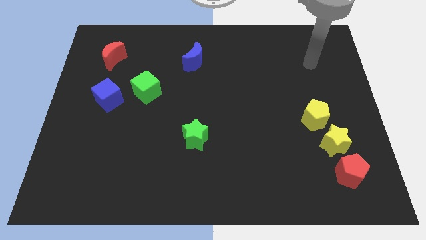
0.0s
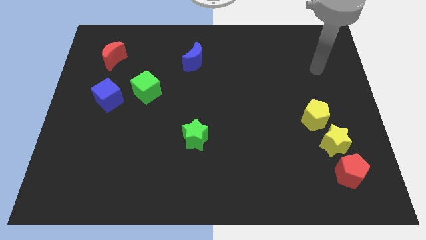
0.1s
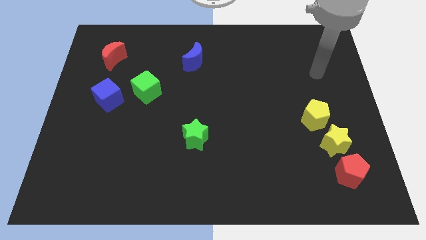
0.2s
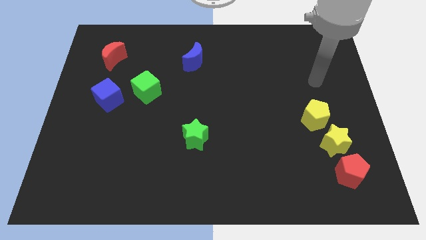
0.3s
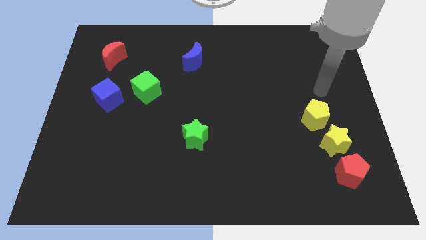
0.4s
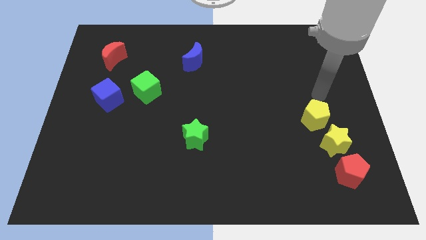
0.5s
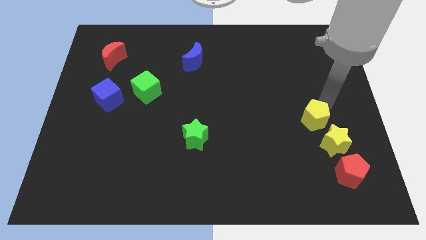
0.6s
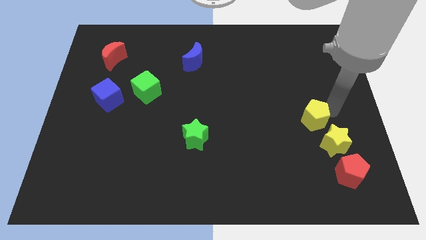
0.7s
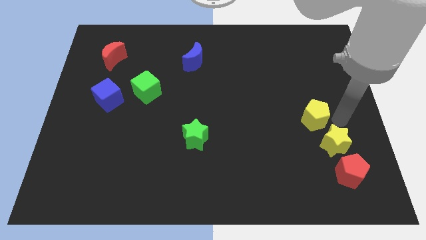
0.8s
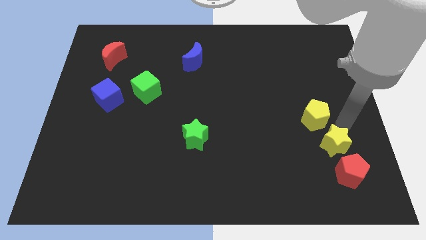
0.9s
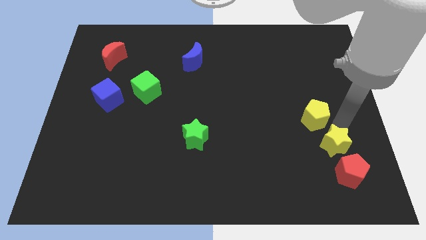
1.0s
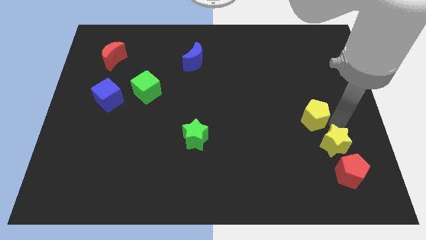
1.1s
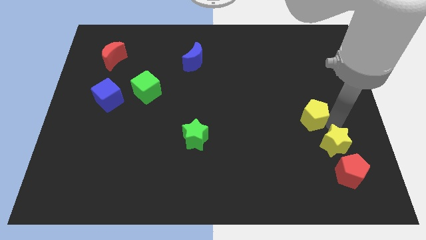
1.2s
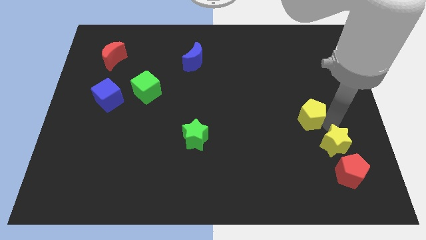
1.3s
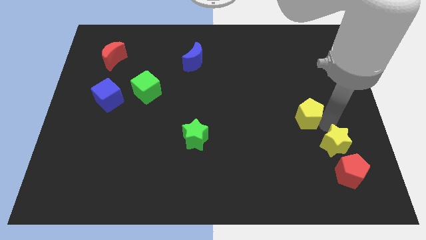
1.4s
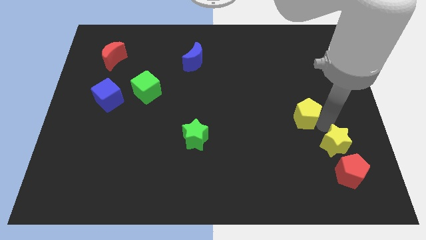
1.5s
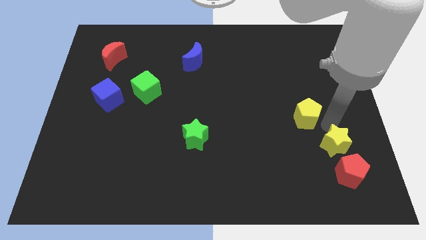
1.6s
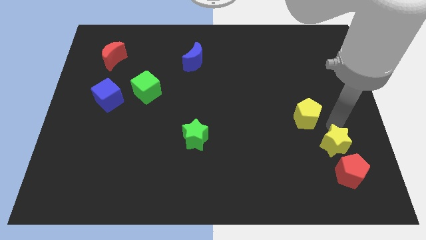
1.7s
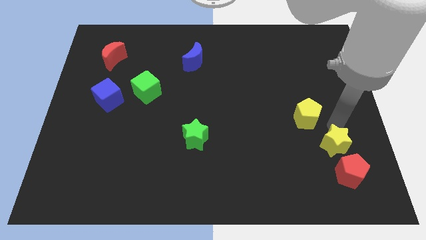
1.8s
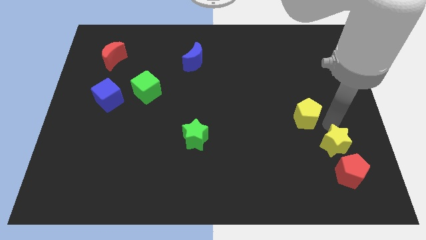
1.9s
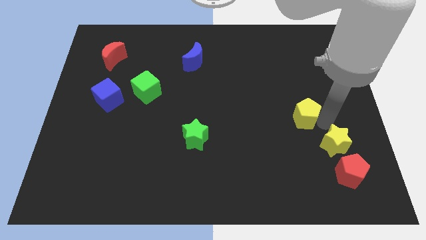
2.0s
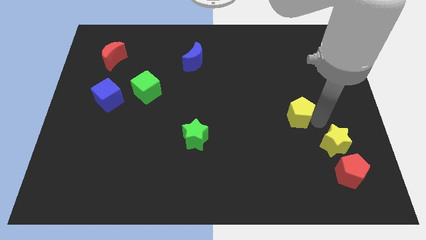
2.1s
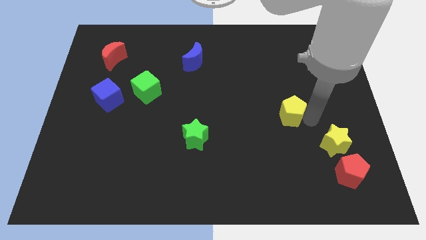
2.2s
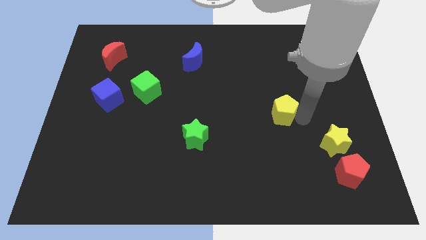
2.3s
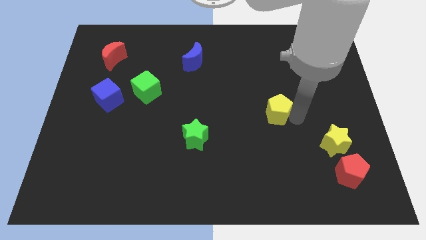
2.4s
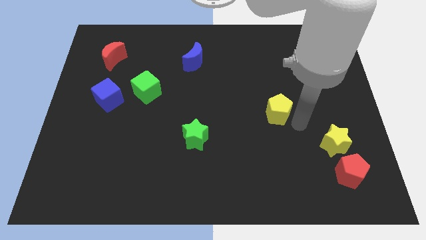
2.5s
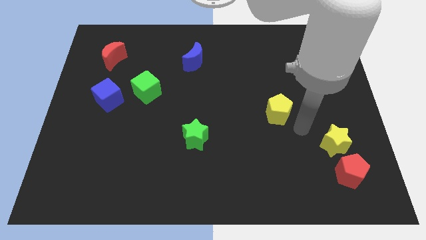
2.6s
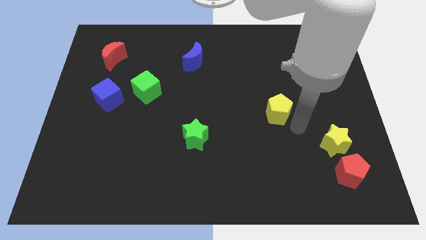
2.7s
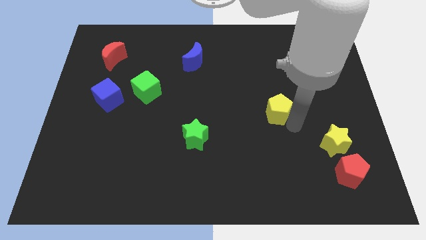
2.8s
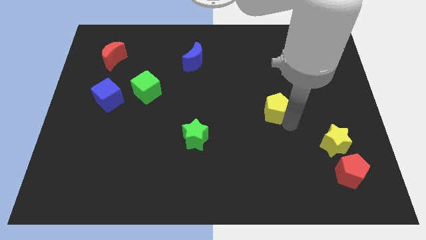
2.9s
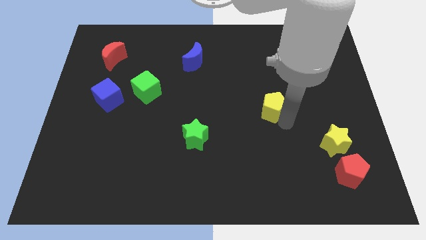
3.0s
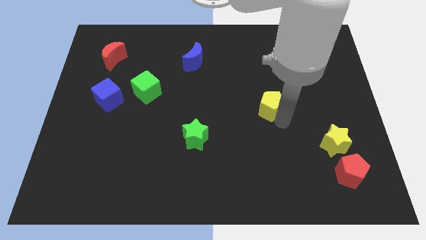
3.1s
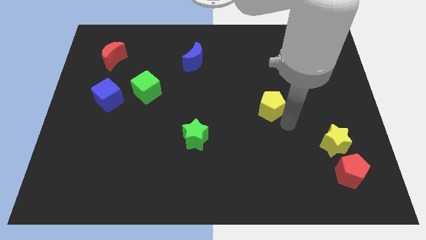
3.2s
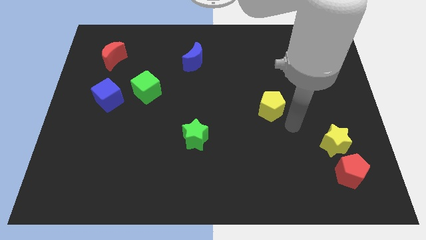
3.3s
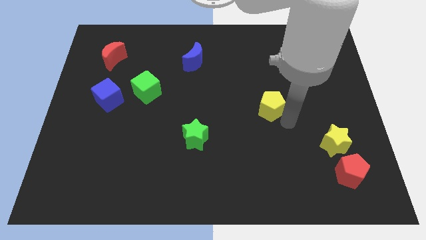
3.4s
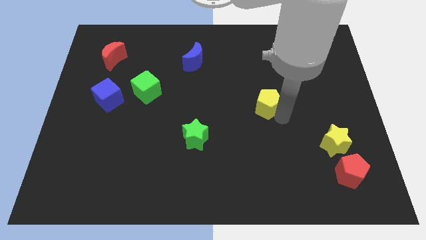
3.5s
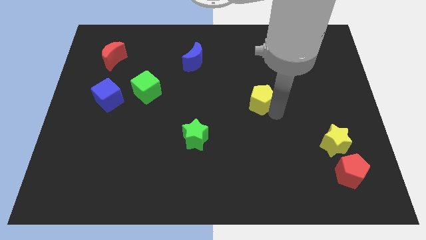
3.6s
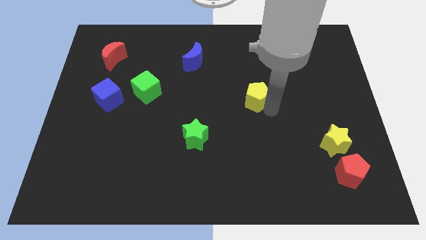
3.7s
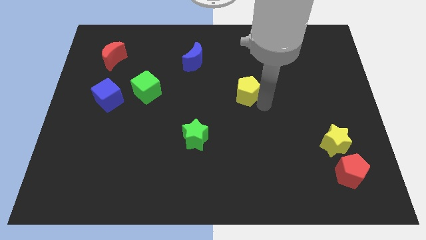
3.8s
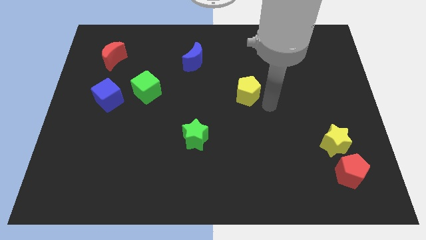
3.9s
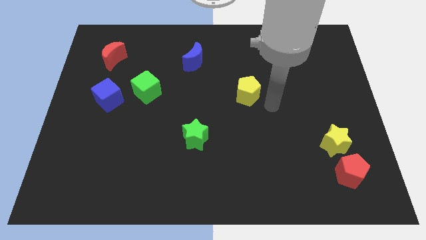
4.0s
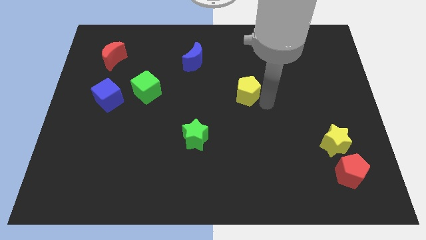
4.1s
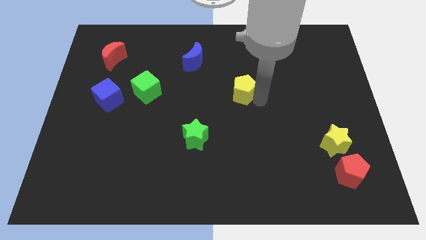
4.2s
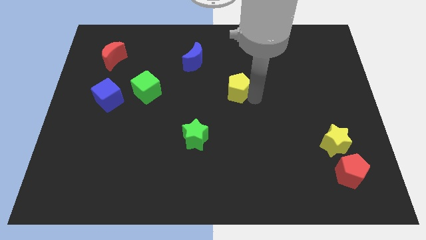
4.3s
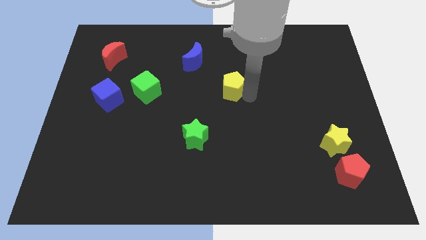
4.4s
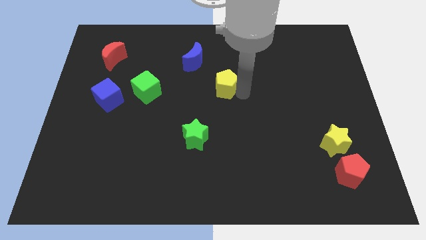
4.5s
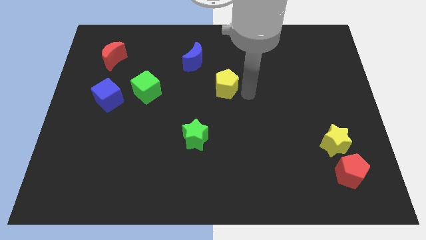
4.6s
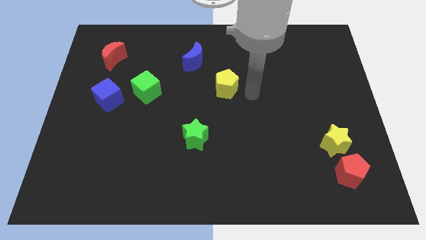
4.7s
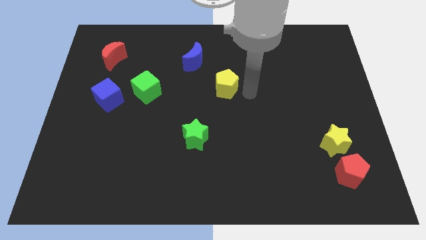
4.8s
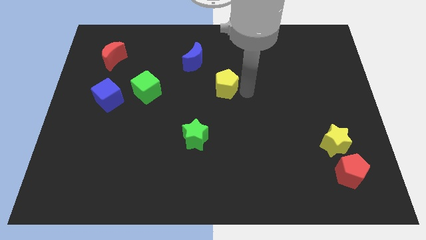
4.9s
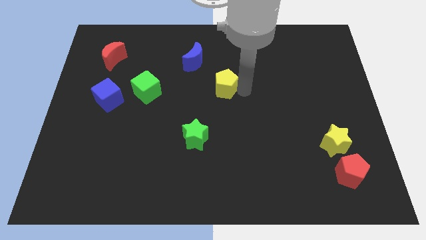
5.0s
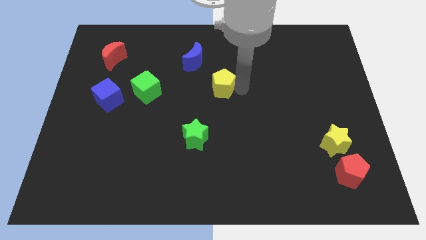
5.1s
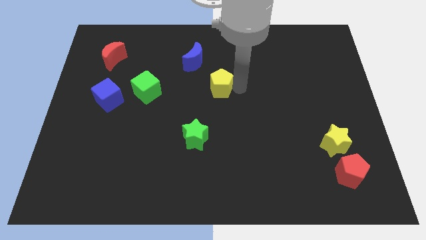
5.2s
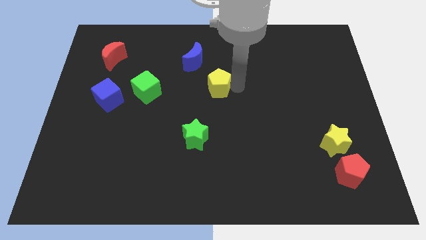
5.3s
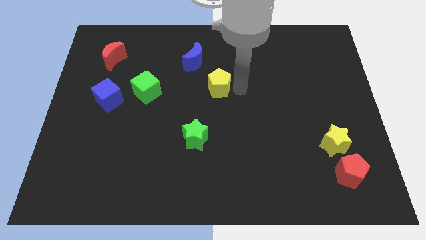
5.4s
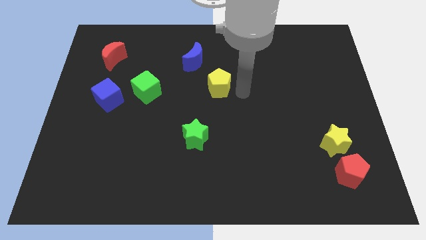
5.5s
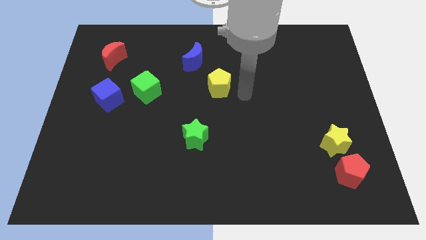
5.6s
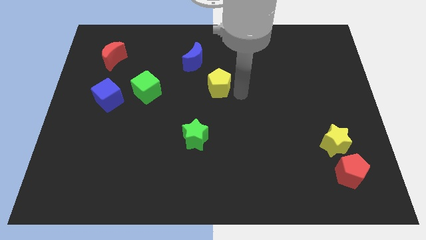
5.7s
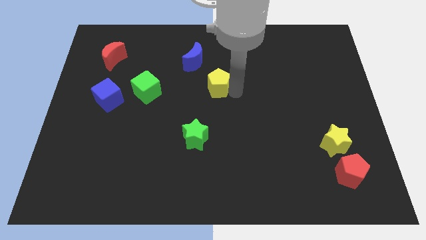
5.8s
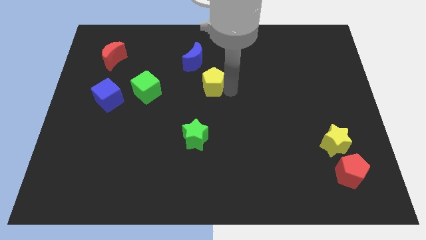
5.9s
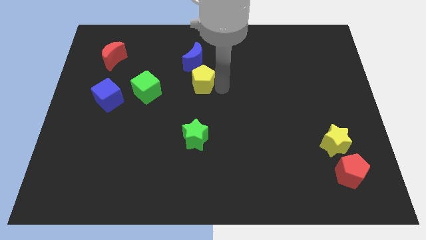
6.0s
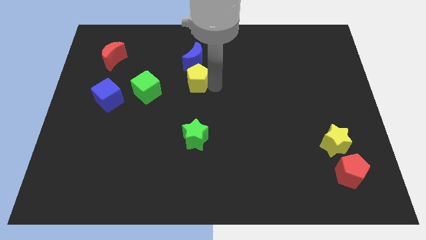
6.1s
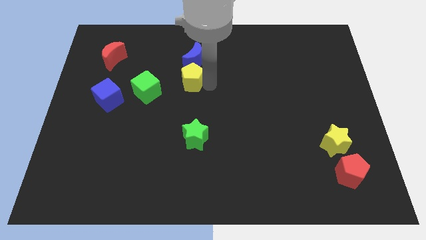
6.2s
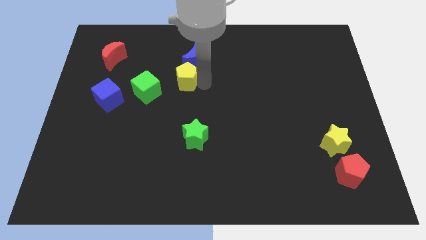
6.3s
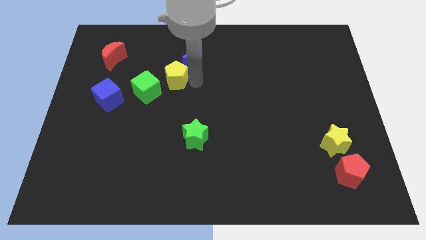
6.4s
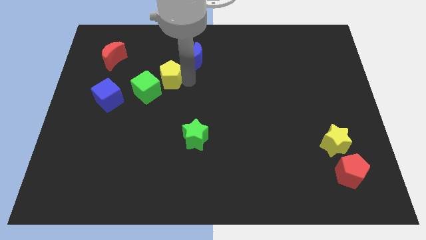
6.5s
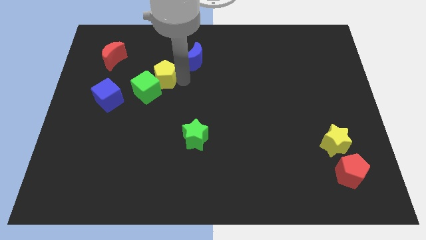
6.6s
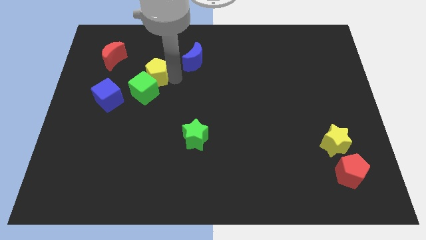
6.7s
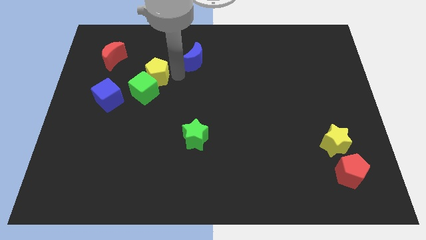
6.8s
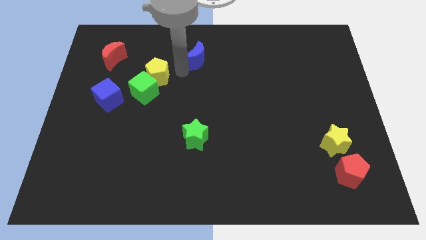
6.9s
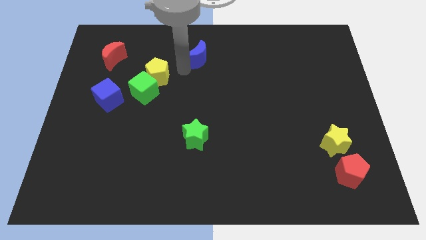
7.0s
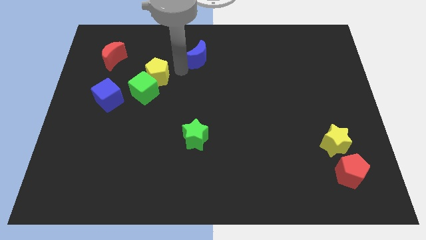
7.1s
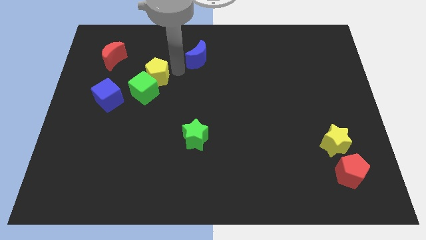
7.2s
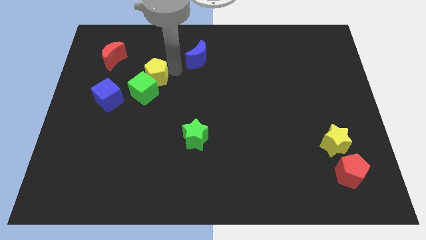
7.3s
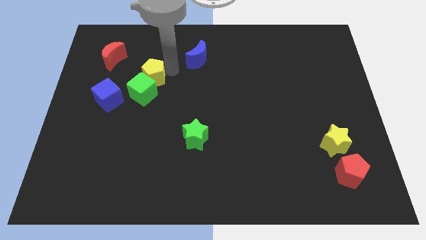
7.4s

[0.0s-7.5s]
put the yellow pentagon diagonally up and to the right of the blue cube

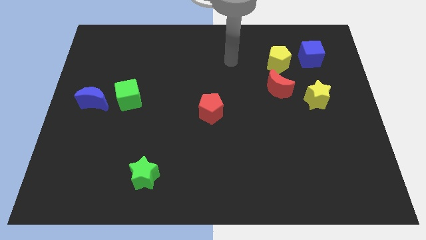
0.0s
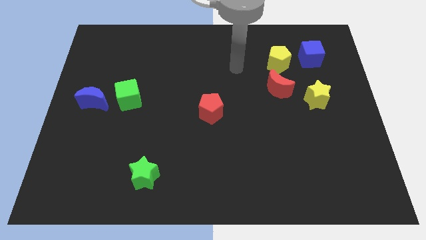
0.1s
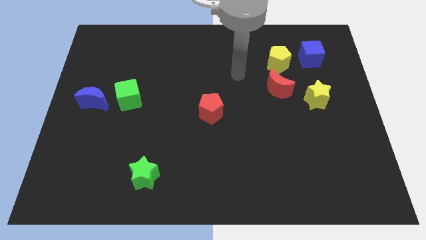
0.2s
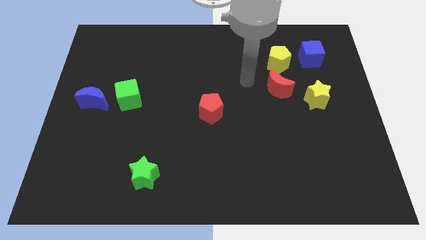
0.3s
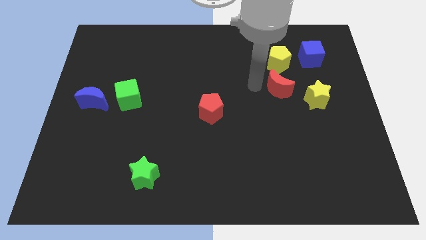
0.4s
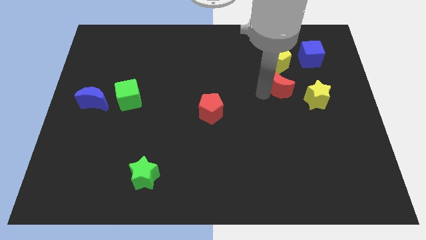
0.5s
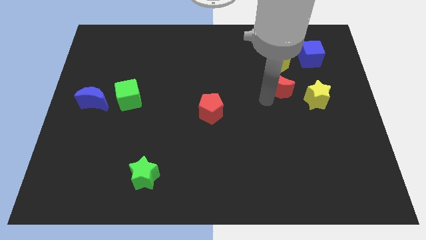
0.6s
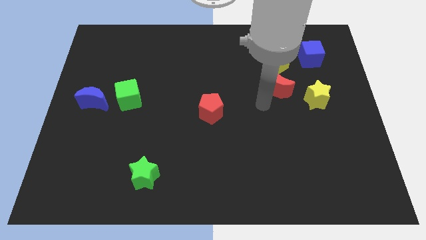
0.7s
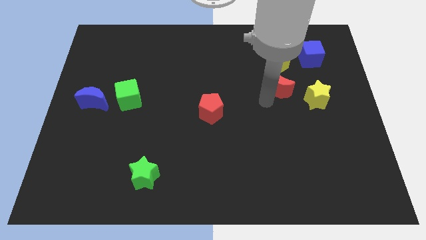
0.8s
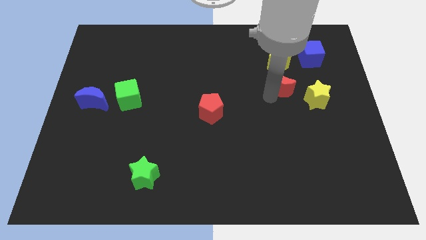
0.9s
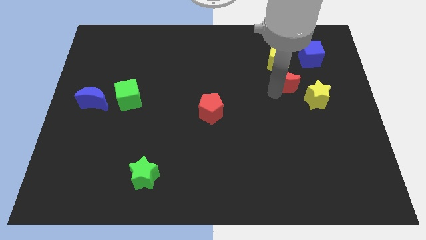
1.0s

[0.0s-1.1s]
slide the red moon diagonally down and to the left of the blue cube
